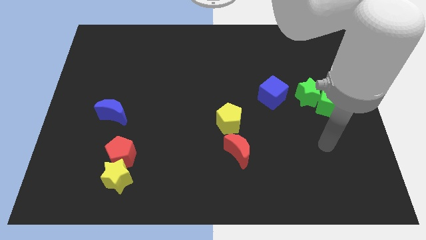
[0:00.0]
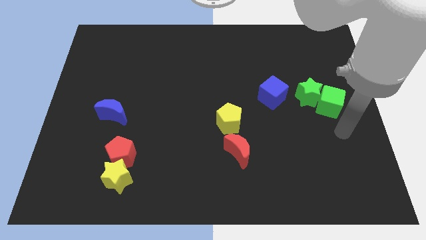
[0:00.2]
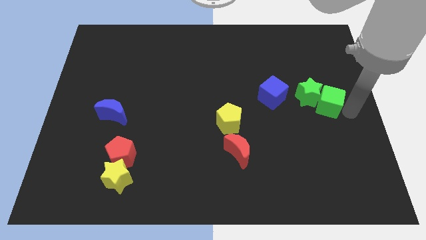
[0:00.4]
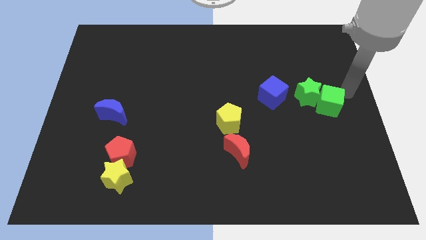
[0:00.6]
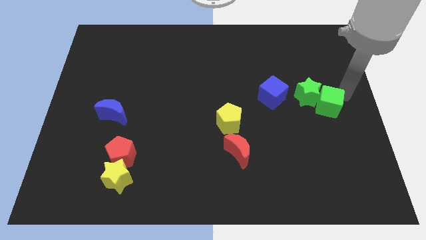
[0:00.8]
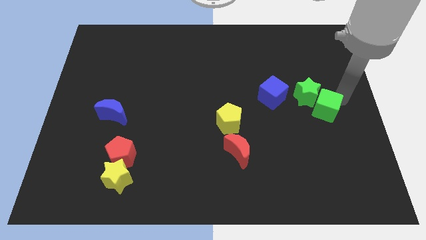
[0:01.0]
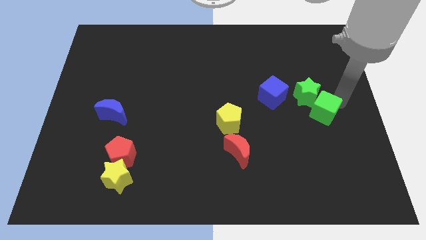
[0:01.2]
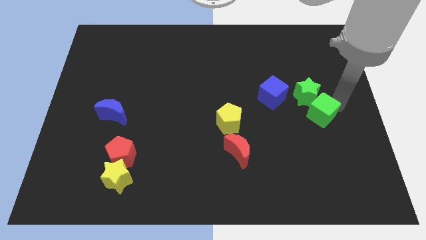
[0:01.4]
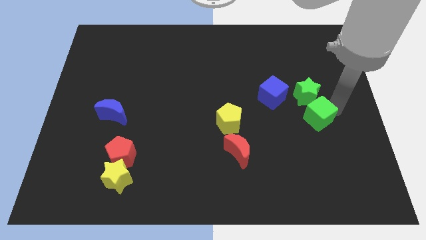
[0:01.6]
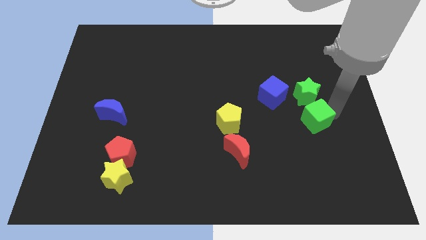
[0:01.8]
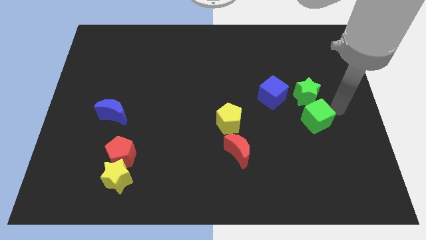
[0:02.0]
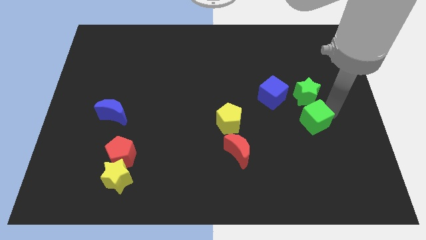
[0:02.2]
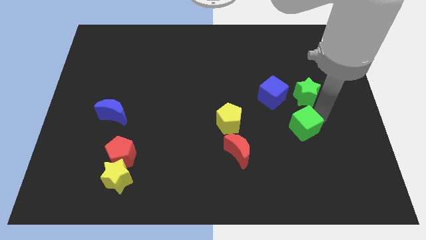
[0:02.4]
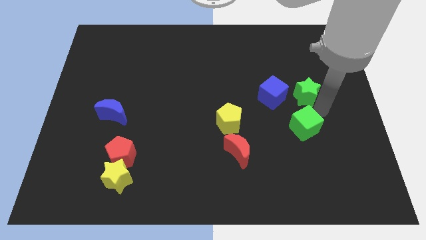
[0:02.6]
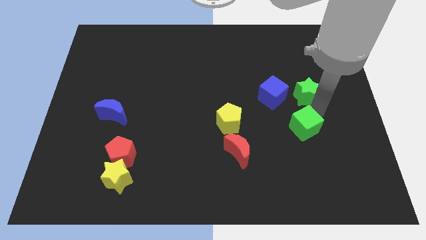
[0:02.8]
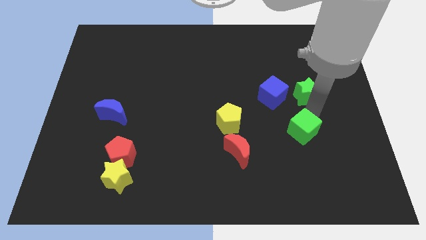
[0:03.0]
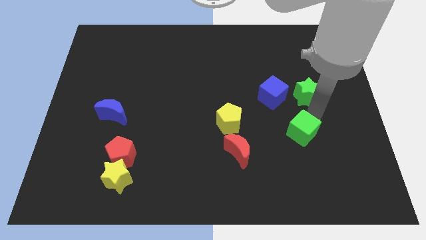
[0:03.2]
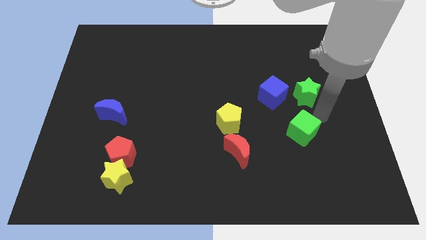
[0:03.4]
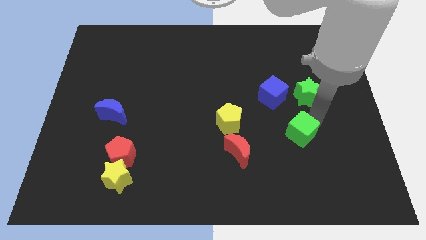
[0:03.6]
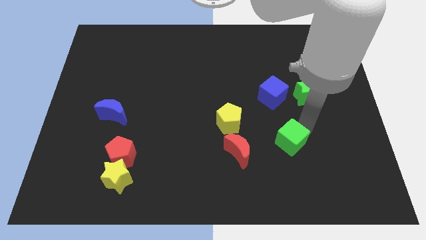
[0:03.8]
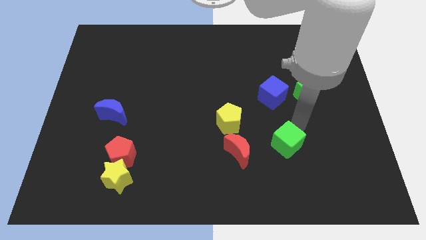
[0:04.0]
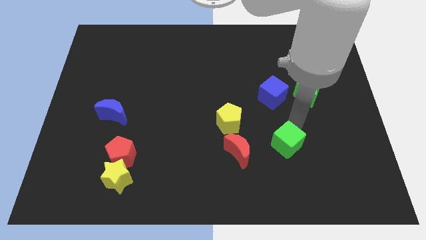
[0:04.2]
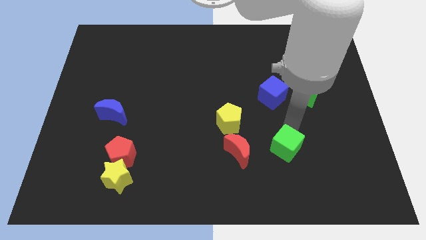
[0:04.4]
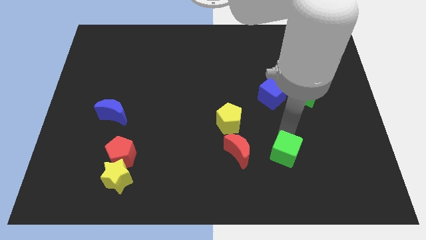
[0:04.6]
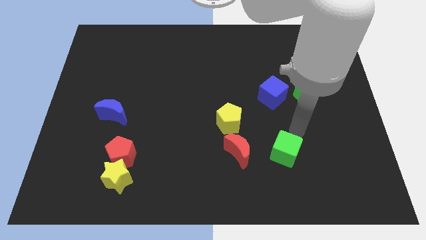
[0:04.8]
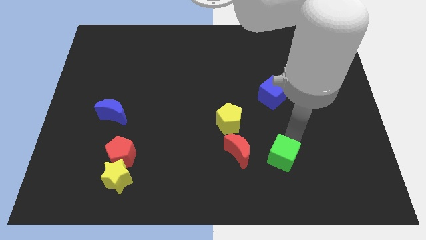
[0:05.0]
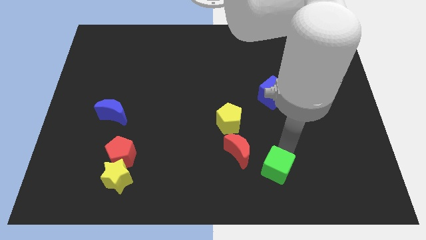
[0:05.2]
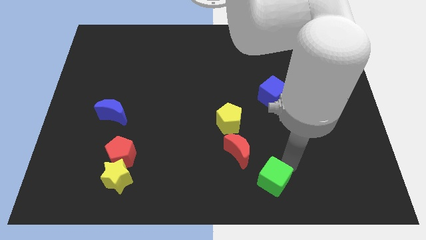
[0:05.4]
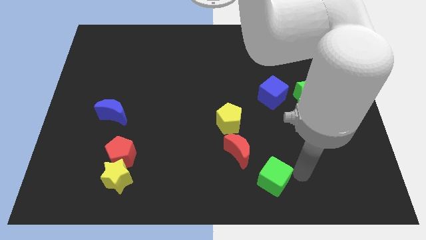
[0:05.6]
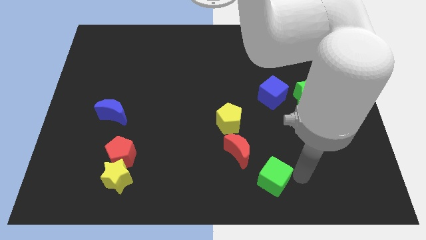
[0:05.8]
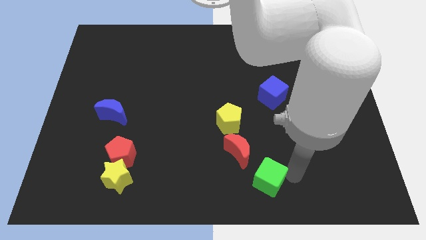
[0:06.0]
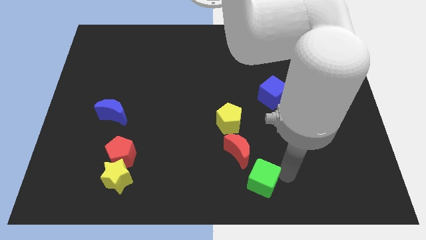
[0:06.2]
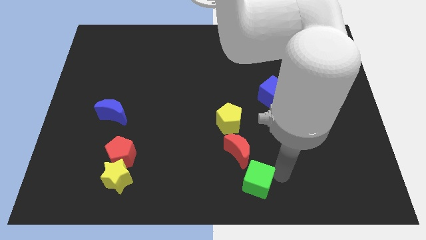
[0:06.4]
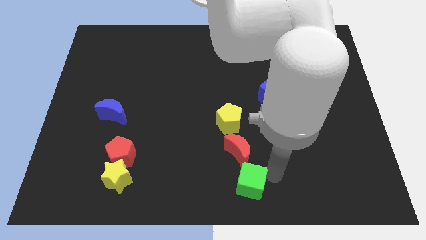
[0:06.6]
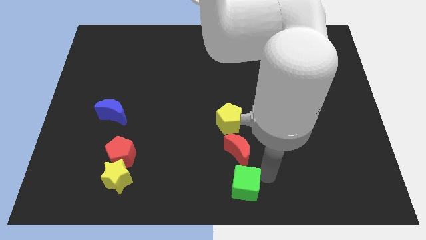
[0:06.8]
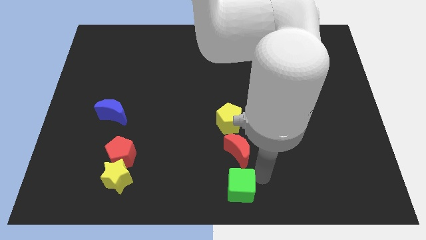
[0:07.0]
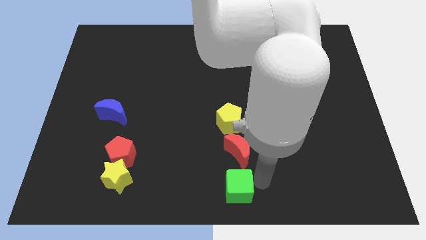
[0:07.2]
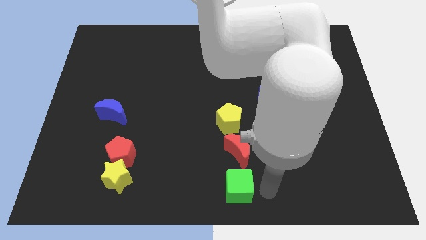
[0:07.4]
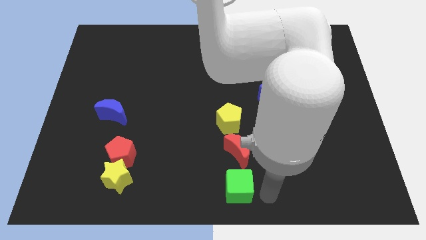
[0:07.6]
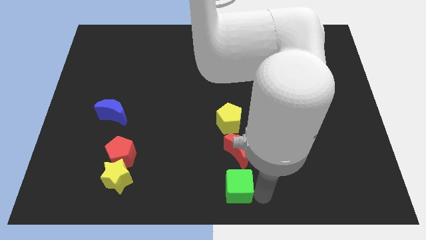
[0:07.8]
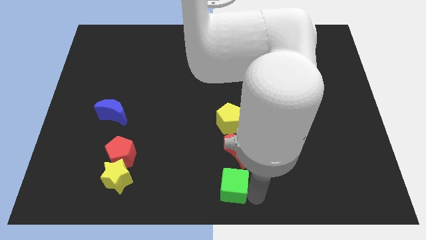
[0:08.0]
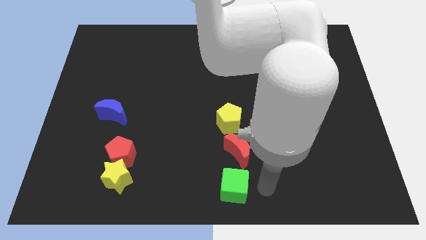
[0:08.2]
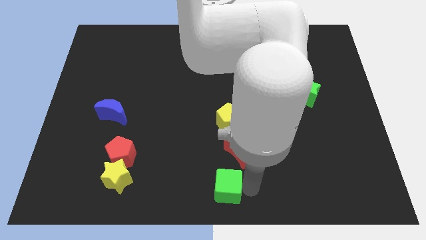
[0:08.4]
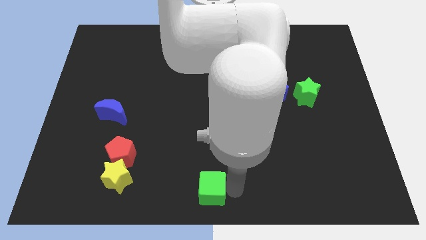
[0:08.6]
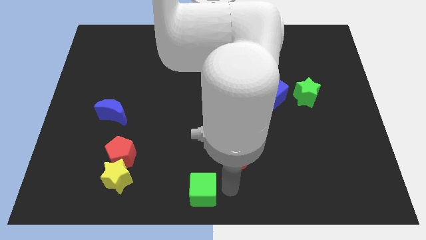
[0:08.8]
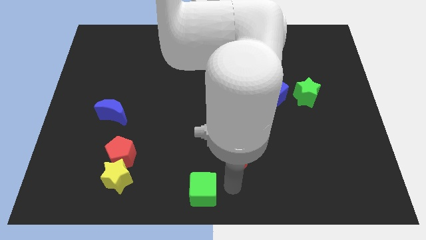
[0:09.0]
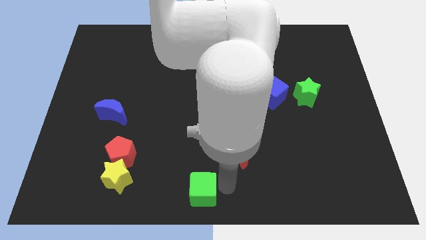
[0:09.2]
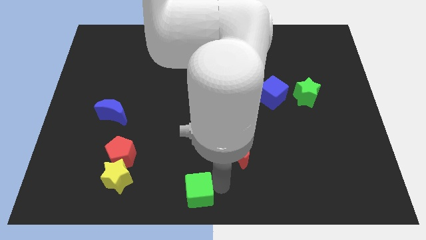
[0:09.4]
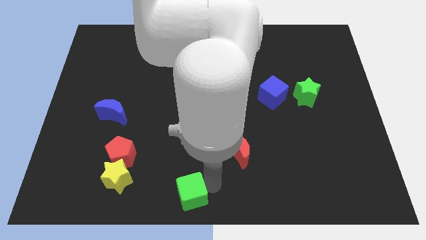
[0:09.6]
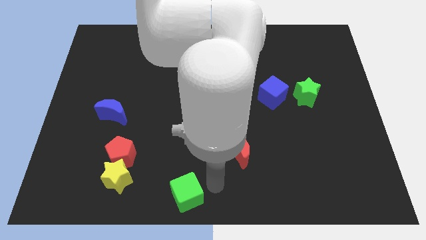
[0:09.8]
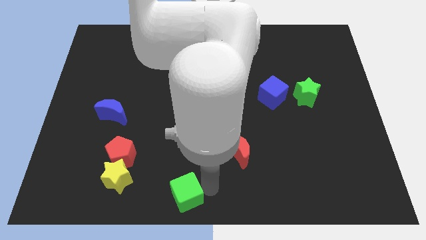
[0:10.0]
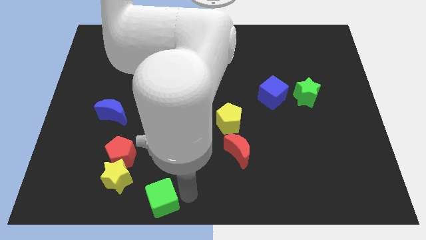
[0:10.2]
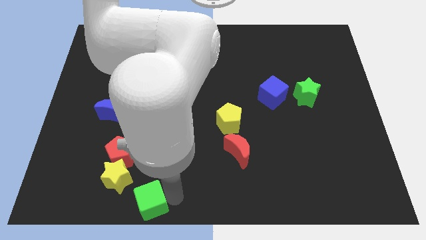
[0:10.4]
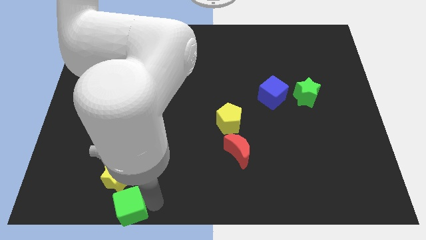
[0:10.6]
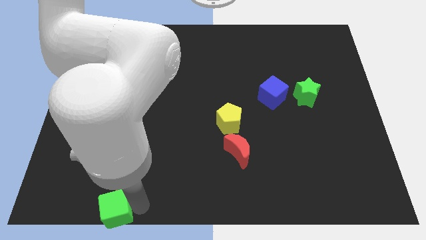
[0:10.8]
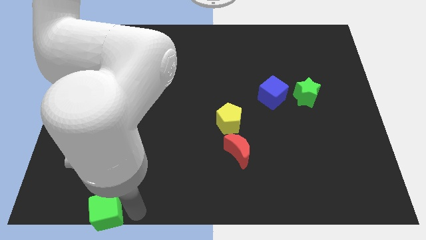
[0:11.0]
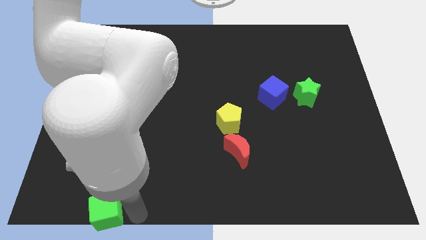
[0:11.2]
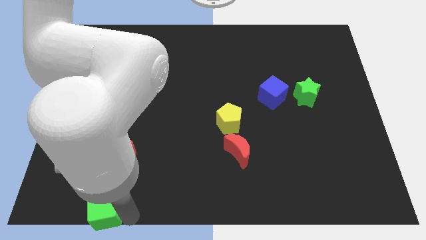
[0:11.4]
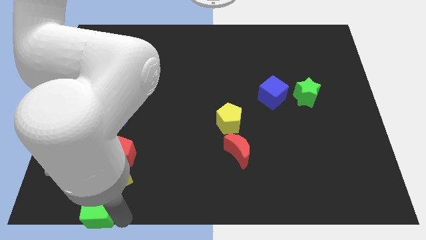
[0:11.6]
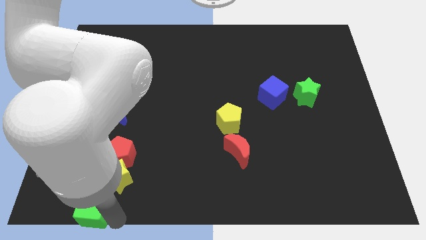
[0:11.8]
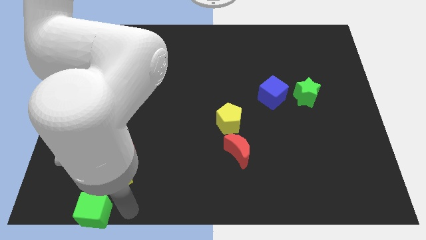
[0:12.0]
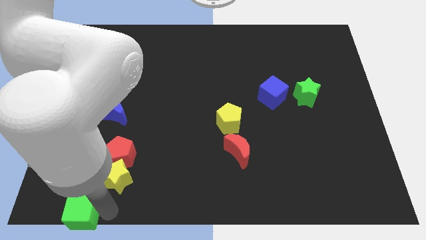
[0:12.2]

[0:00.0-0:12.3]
put the green cube to the bottom left of the board

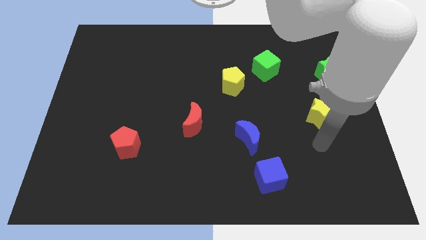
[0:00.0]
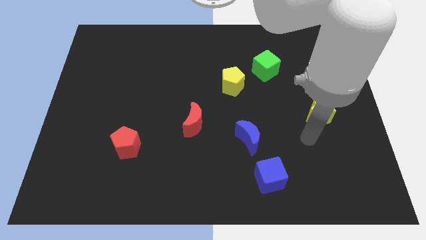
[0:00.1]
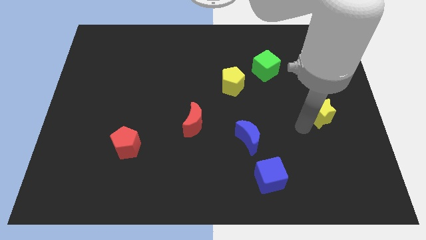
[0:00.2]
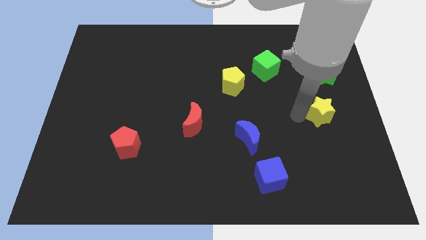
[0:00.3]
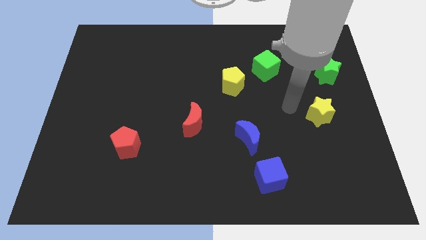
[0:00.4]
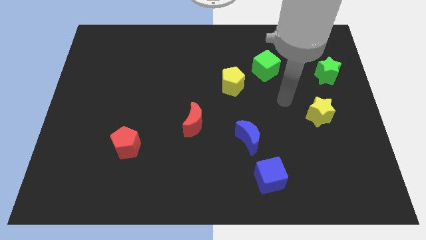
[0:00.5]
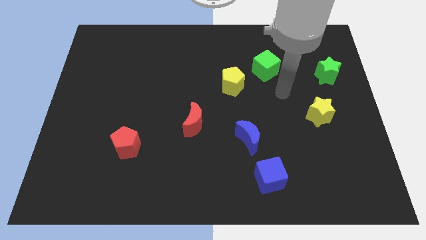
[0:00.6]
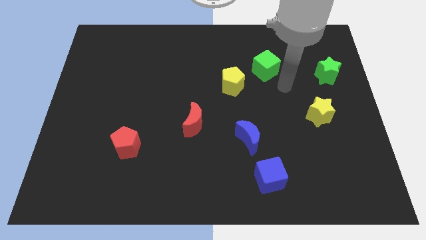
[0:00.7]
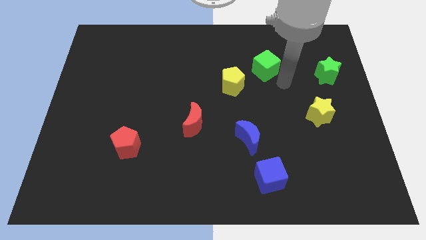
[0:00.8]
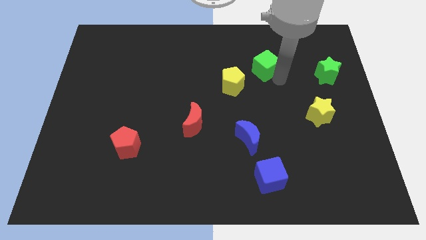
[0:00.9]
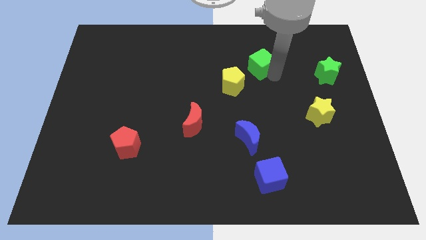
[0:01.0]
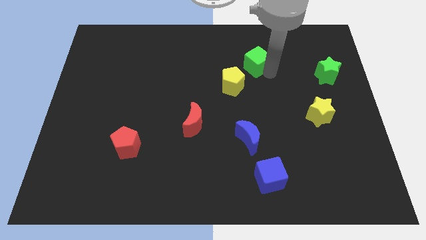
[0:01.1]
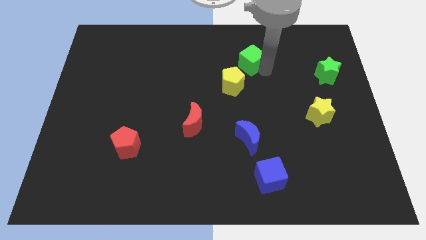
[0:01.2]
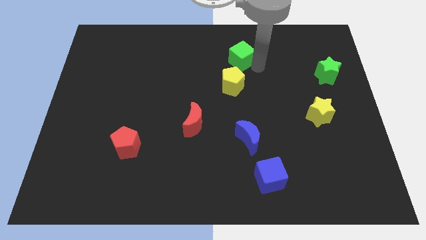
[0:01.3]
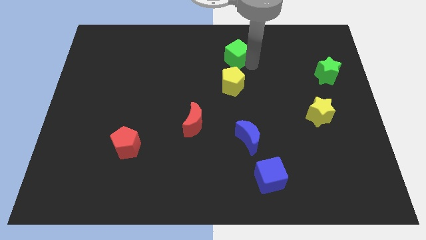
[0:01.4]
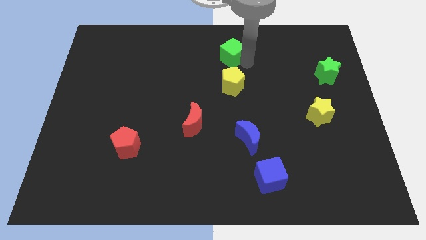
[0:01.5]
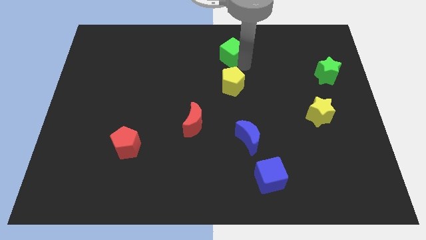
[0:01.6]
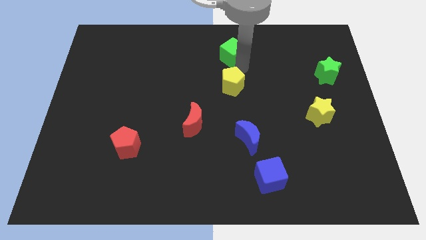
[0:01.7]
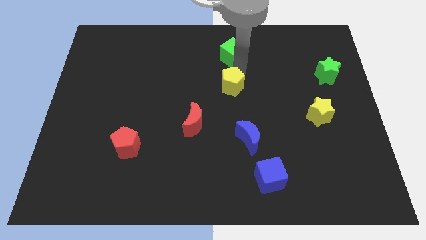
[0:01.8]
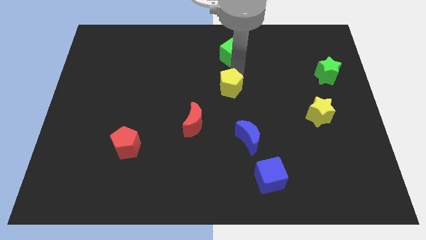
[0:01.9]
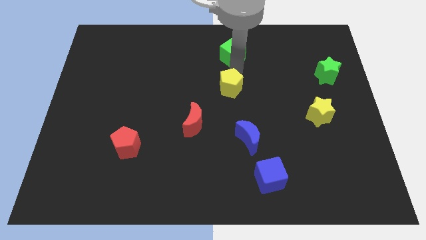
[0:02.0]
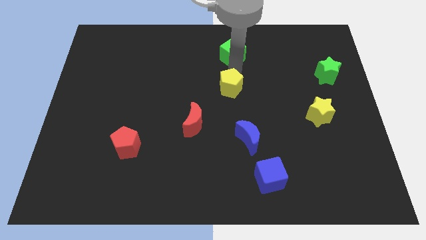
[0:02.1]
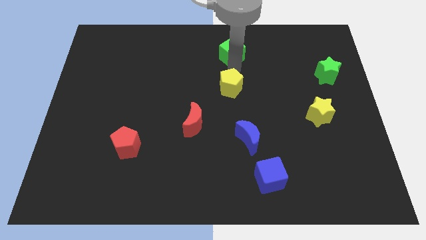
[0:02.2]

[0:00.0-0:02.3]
move the green cube to the top
